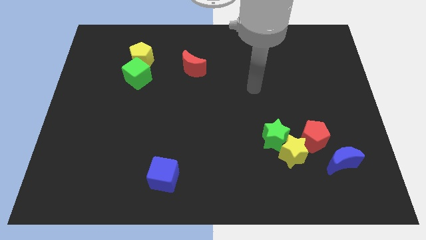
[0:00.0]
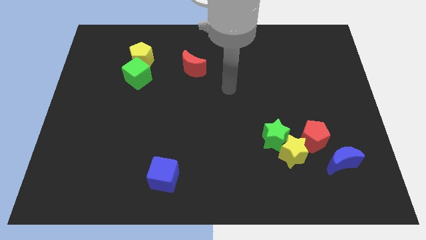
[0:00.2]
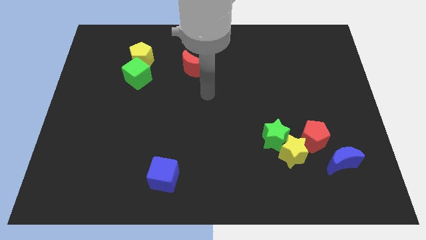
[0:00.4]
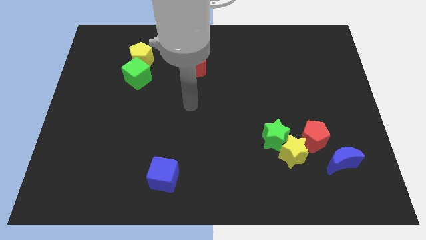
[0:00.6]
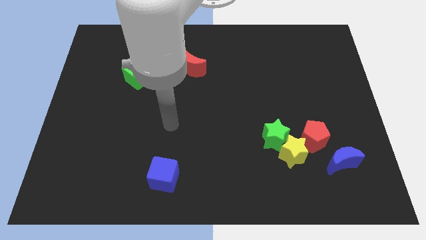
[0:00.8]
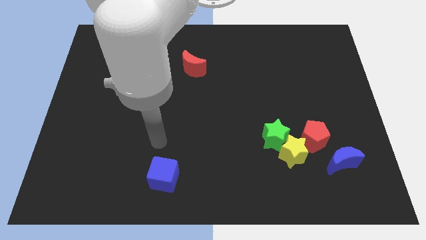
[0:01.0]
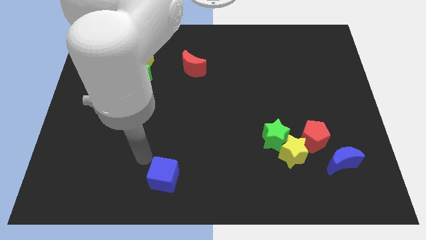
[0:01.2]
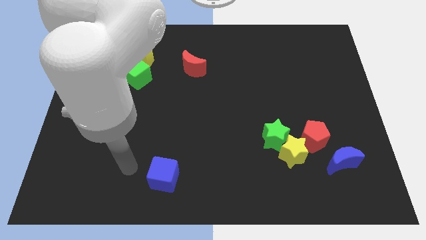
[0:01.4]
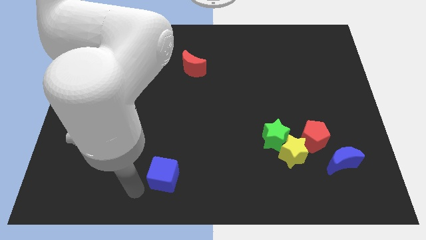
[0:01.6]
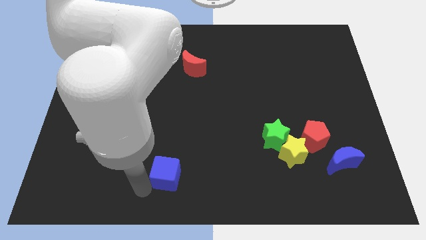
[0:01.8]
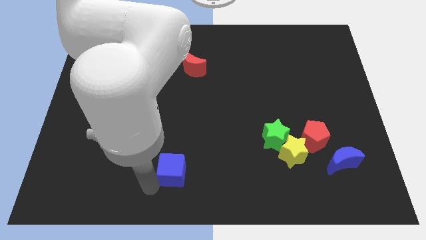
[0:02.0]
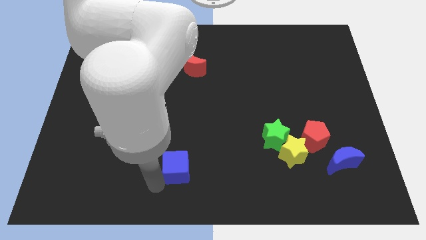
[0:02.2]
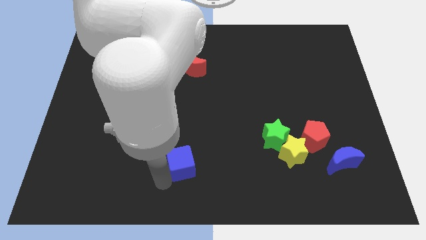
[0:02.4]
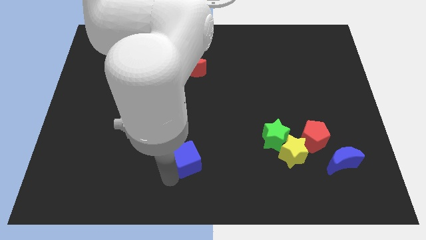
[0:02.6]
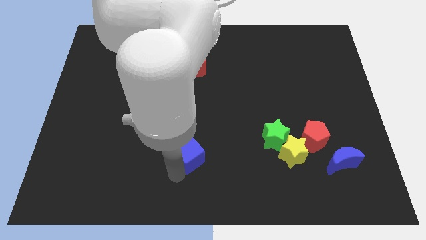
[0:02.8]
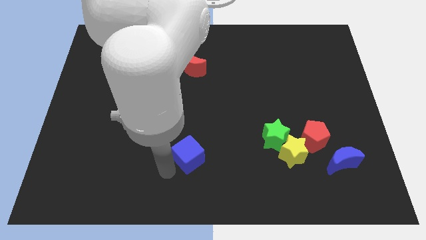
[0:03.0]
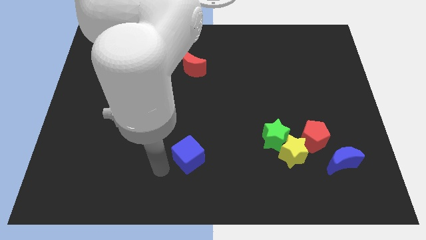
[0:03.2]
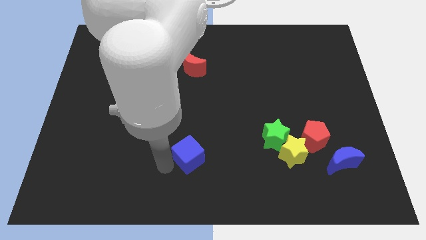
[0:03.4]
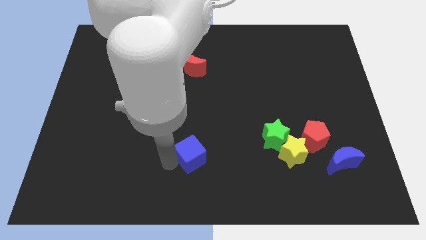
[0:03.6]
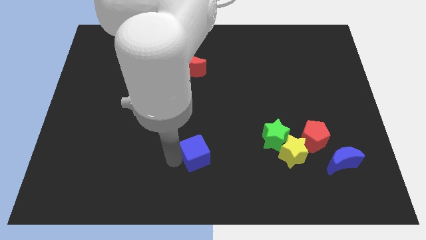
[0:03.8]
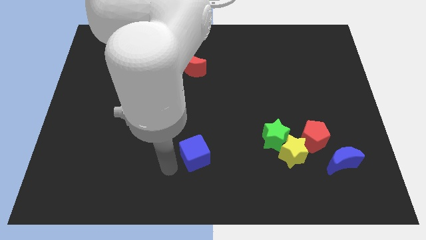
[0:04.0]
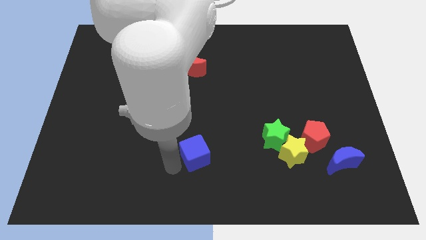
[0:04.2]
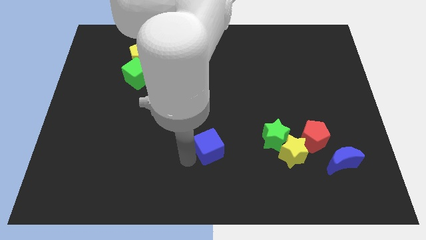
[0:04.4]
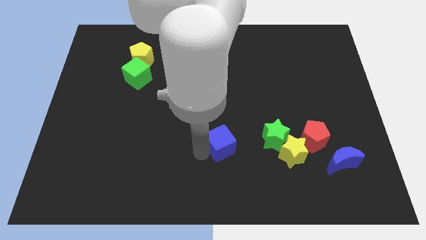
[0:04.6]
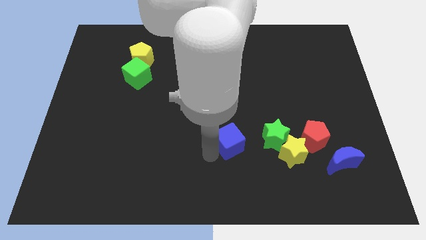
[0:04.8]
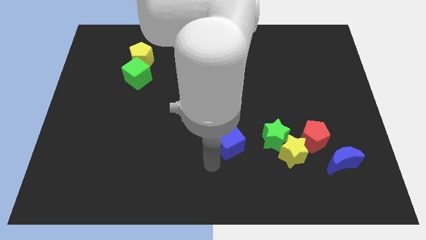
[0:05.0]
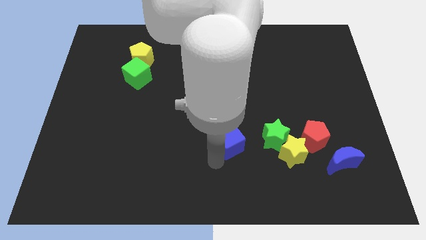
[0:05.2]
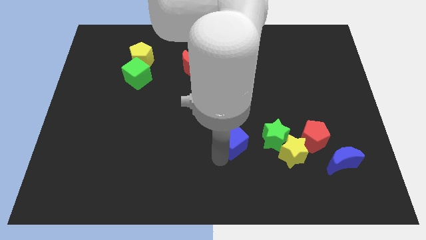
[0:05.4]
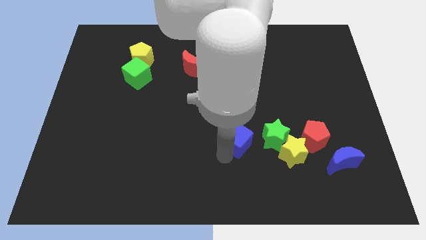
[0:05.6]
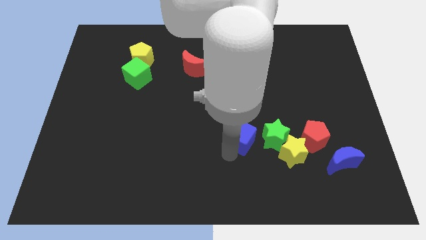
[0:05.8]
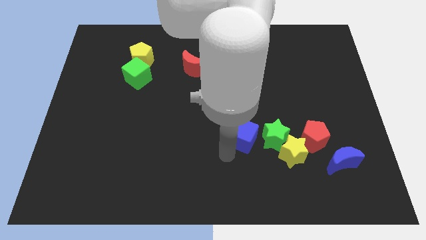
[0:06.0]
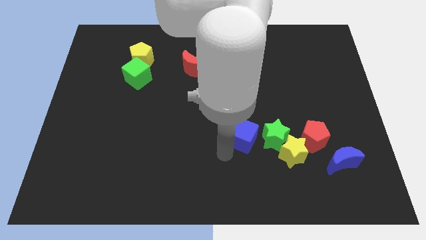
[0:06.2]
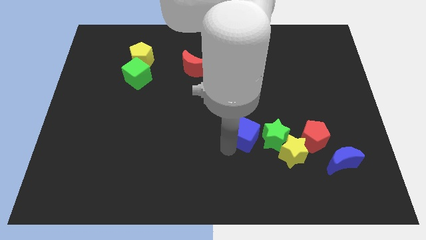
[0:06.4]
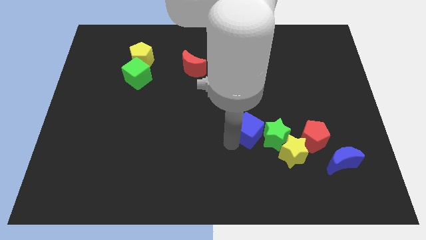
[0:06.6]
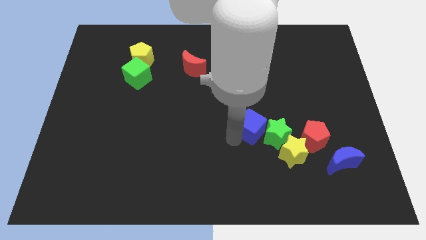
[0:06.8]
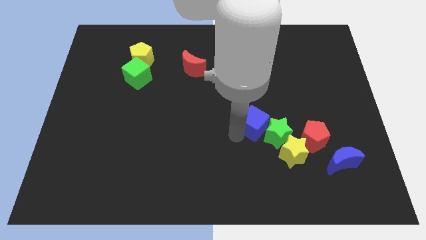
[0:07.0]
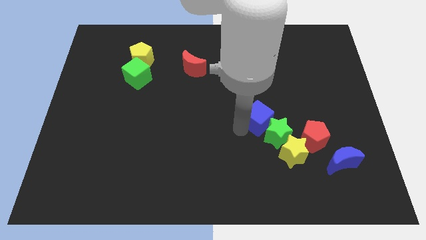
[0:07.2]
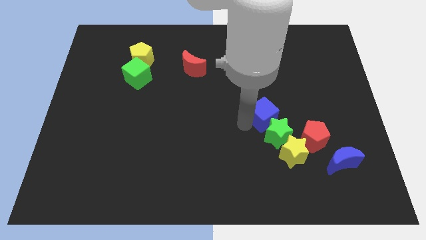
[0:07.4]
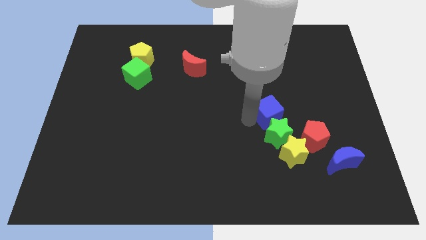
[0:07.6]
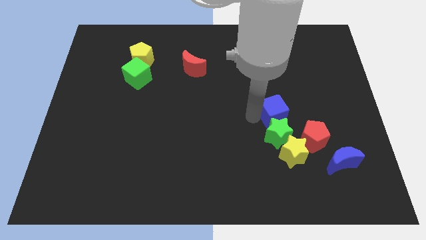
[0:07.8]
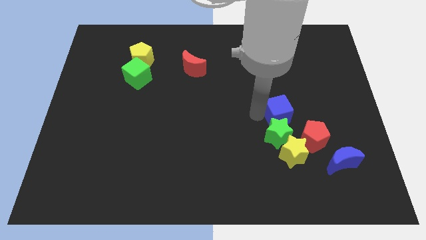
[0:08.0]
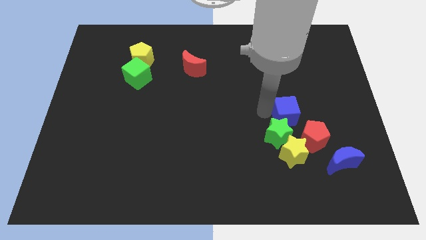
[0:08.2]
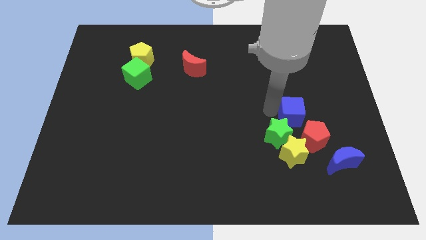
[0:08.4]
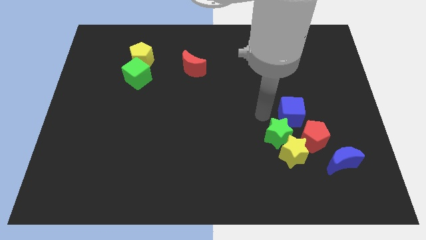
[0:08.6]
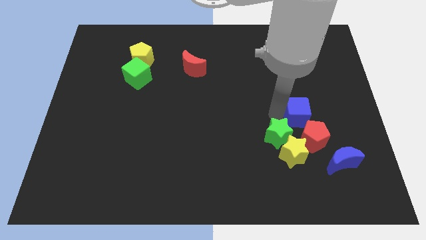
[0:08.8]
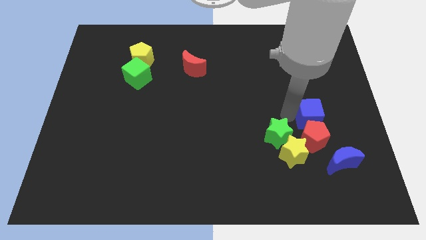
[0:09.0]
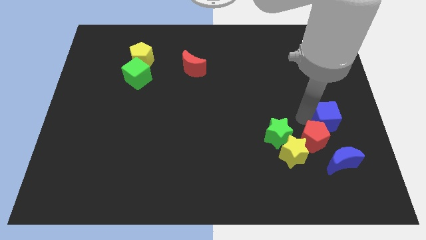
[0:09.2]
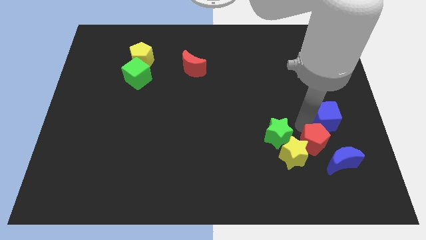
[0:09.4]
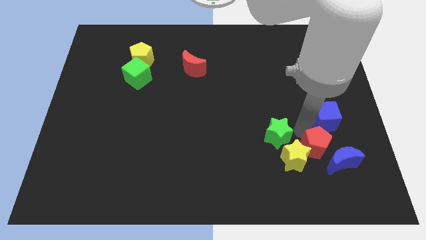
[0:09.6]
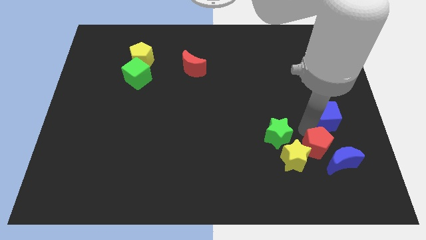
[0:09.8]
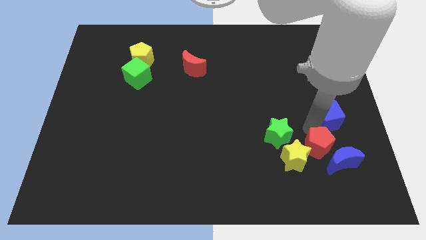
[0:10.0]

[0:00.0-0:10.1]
slide the blue cube to the center right
